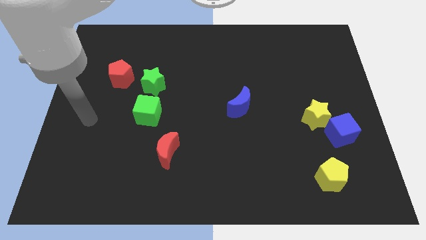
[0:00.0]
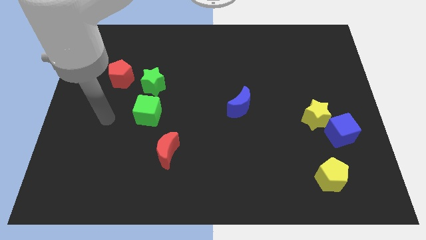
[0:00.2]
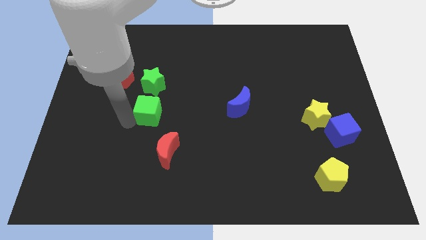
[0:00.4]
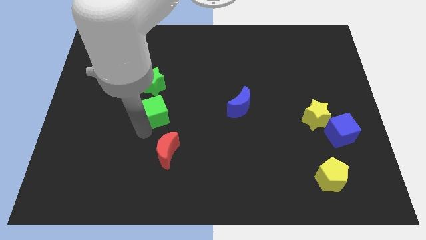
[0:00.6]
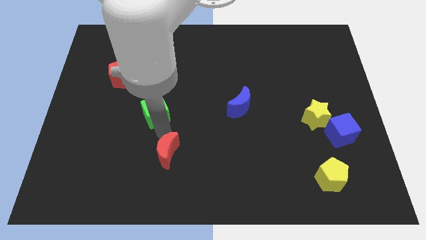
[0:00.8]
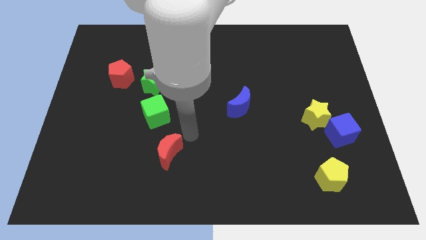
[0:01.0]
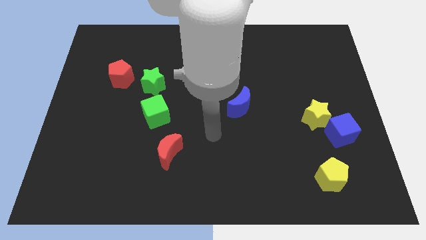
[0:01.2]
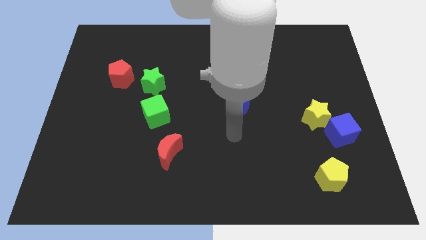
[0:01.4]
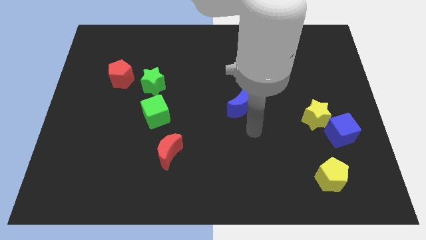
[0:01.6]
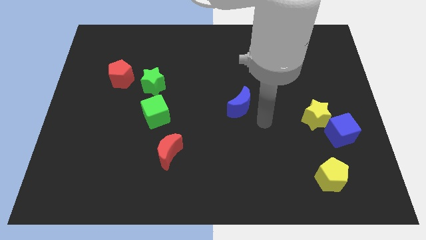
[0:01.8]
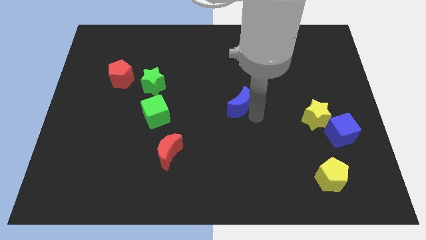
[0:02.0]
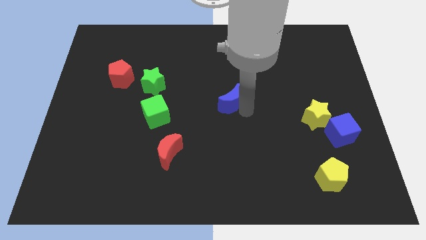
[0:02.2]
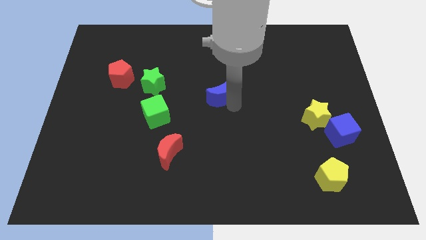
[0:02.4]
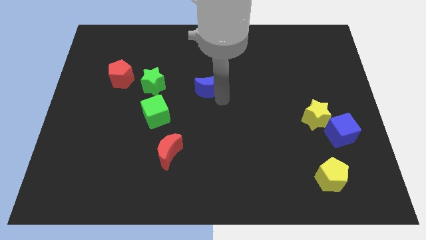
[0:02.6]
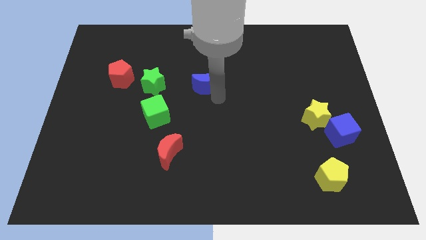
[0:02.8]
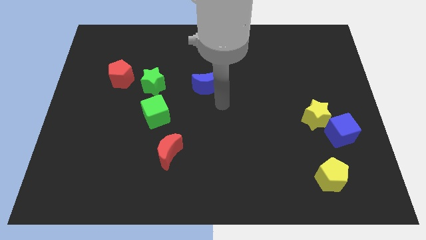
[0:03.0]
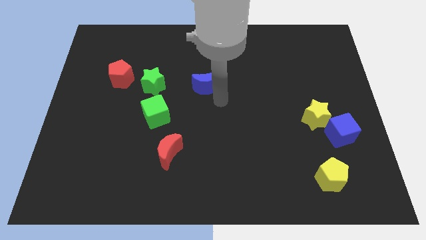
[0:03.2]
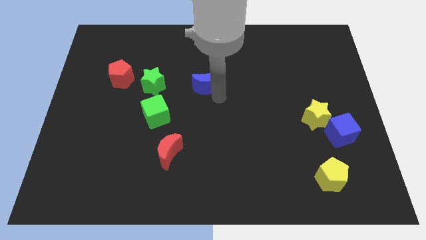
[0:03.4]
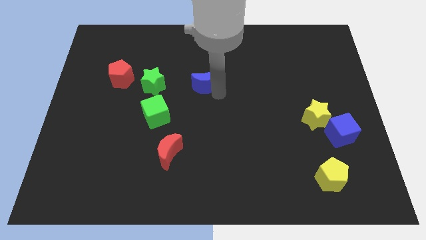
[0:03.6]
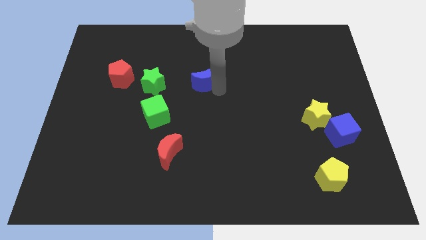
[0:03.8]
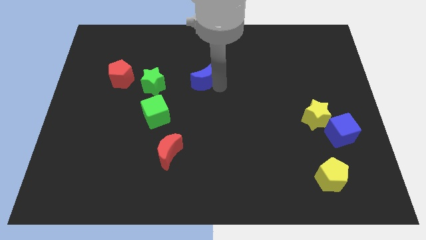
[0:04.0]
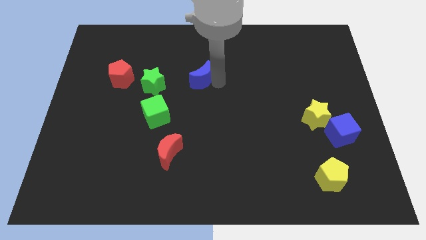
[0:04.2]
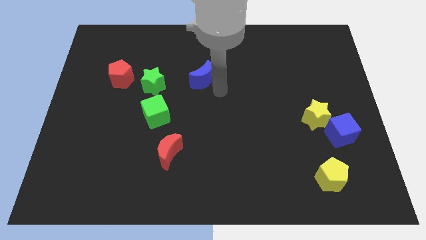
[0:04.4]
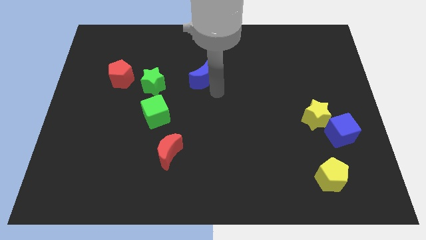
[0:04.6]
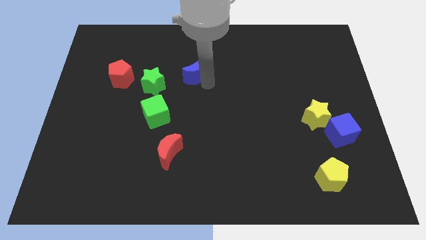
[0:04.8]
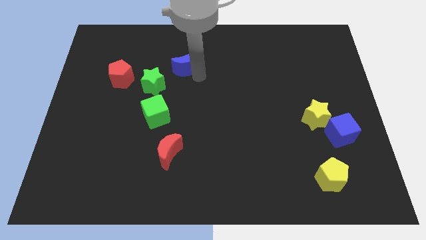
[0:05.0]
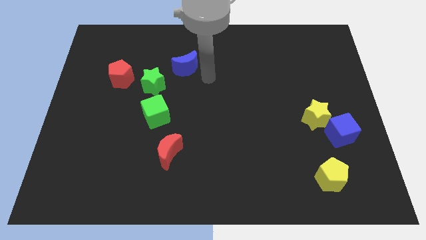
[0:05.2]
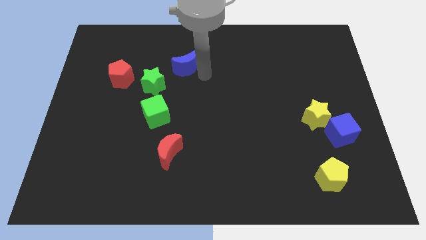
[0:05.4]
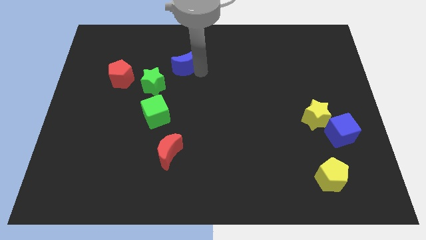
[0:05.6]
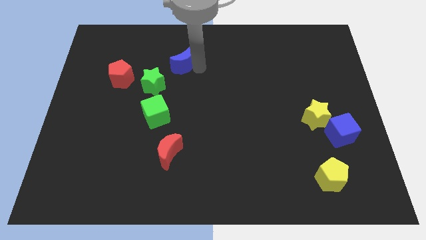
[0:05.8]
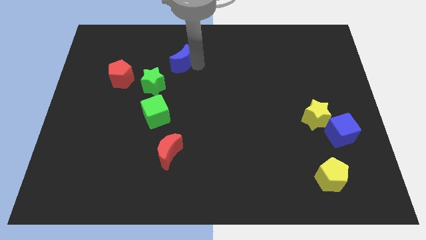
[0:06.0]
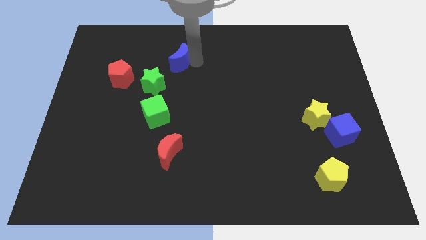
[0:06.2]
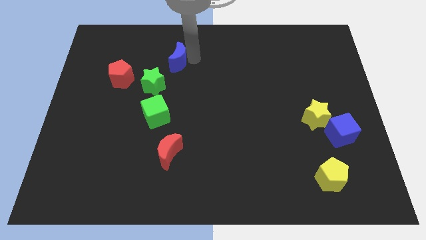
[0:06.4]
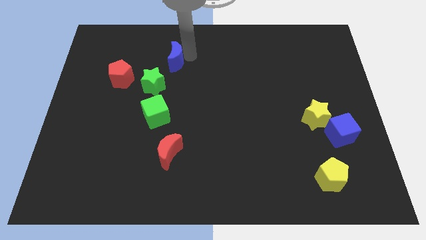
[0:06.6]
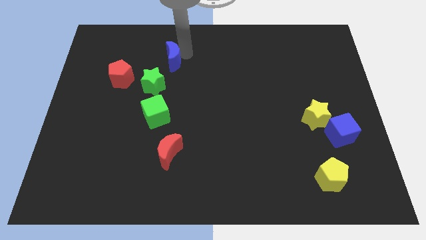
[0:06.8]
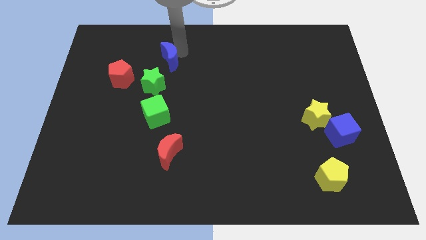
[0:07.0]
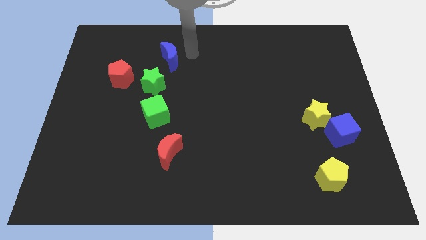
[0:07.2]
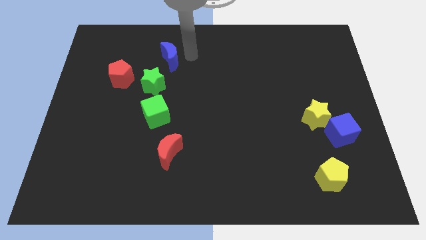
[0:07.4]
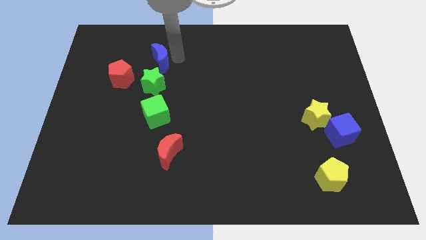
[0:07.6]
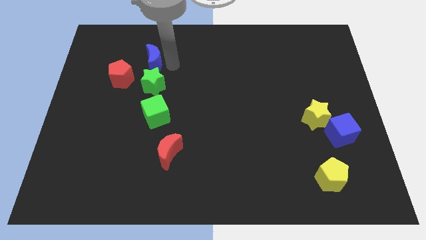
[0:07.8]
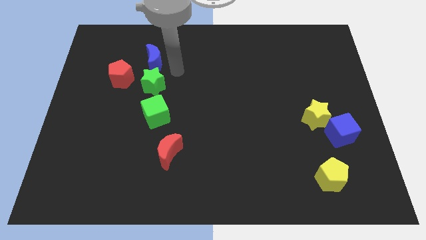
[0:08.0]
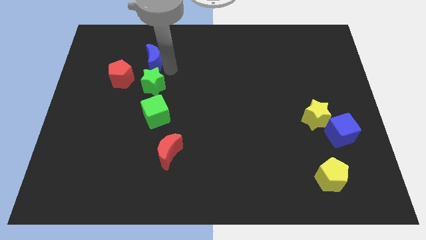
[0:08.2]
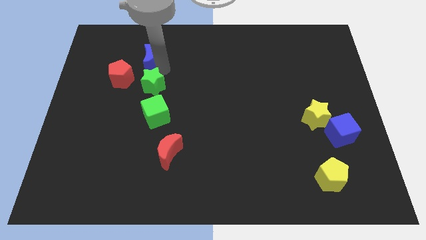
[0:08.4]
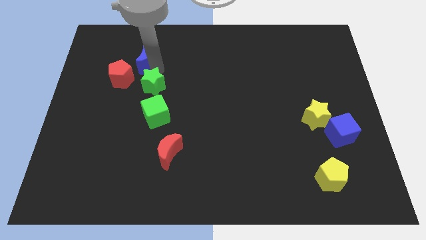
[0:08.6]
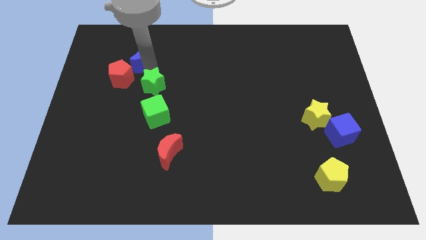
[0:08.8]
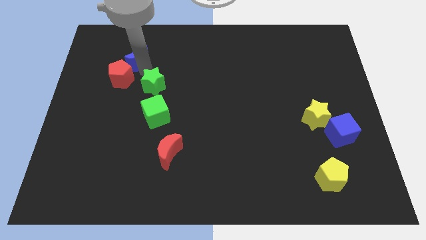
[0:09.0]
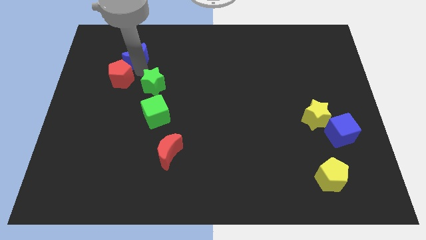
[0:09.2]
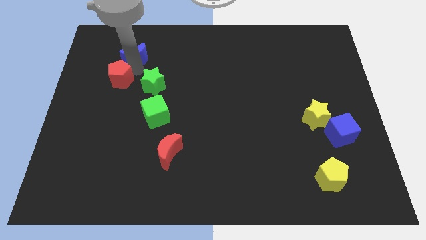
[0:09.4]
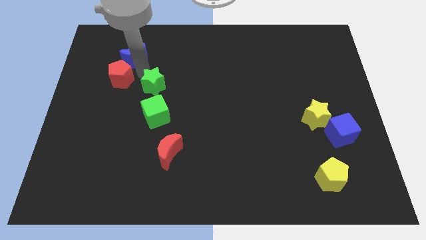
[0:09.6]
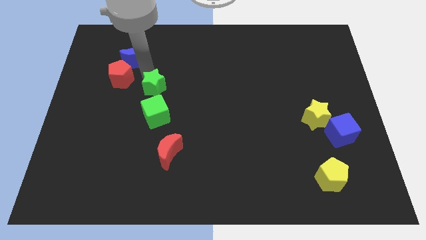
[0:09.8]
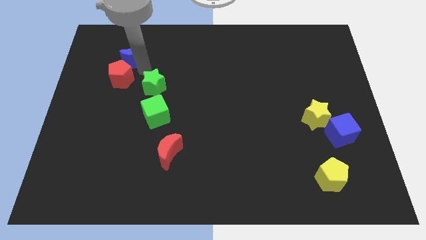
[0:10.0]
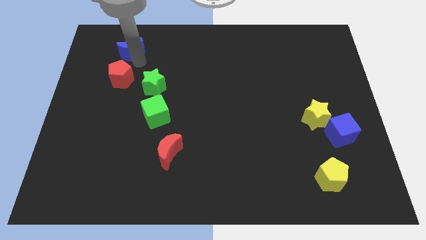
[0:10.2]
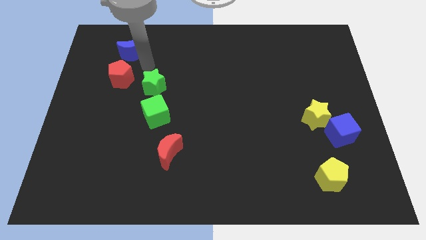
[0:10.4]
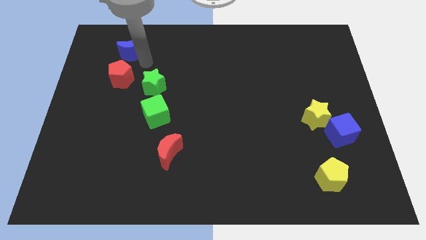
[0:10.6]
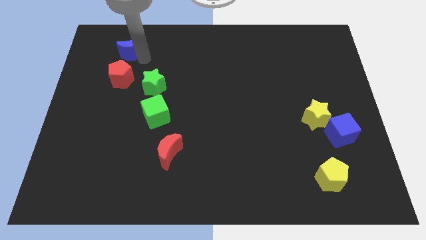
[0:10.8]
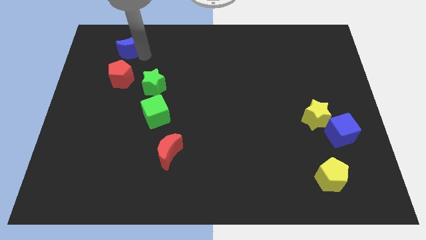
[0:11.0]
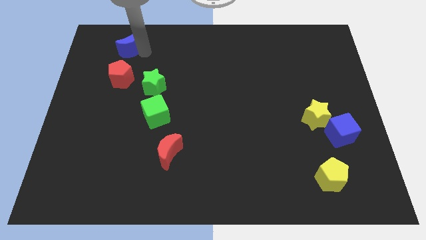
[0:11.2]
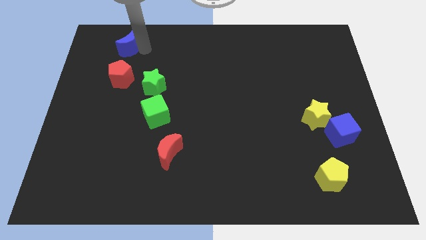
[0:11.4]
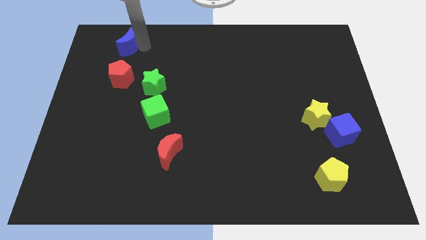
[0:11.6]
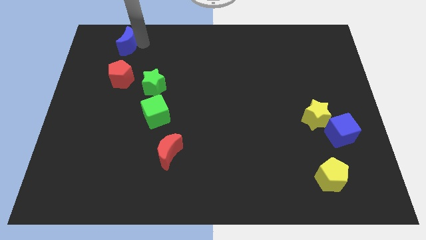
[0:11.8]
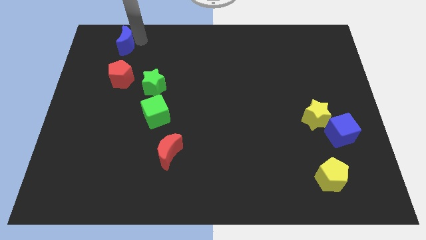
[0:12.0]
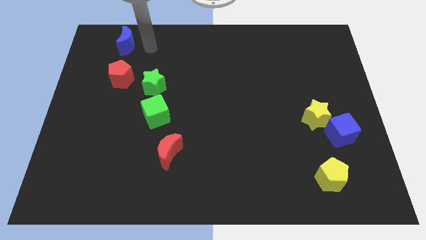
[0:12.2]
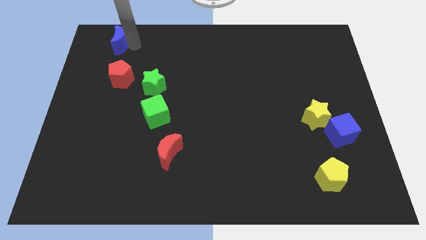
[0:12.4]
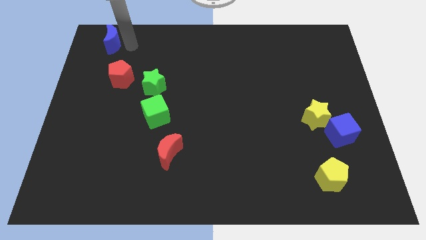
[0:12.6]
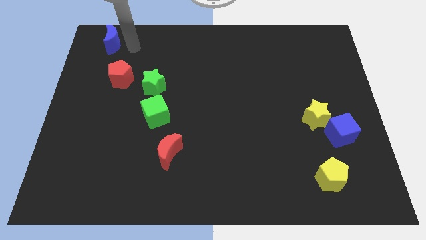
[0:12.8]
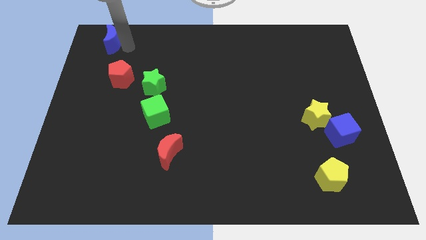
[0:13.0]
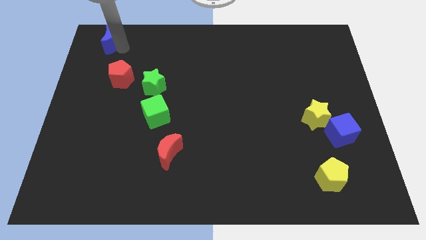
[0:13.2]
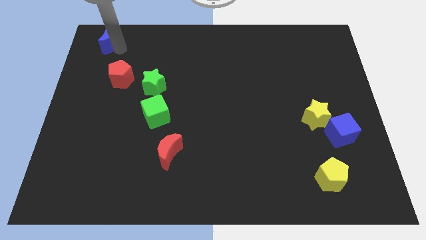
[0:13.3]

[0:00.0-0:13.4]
push the blue moon to the upper left corner

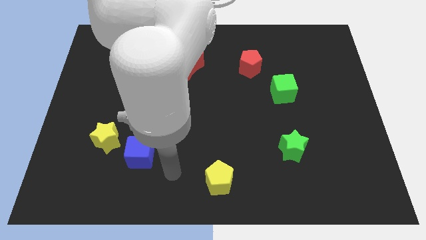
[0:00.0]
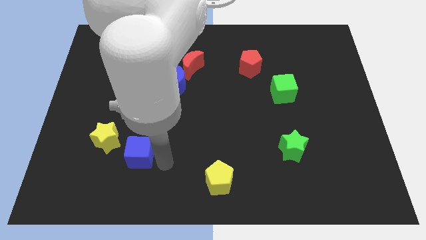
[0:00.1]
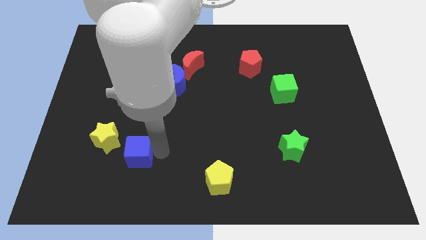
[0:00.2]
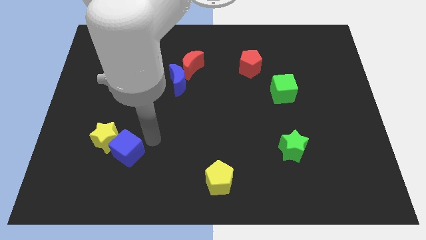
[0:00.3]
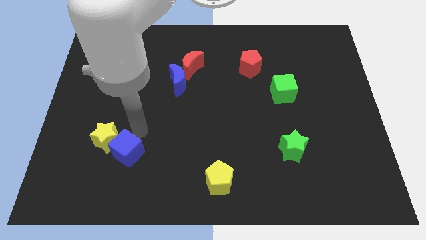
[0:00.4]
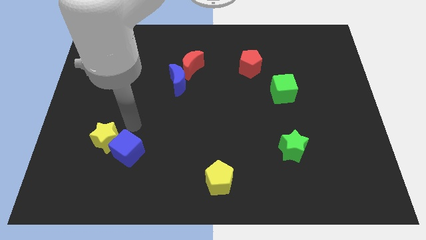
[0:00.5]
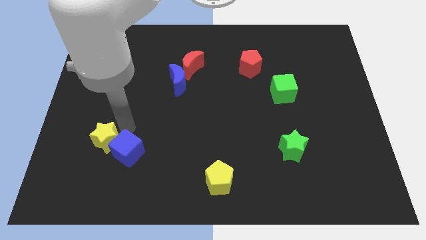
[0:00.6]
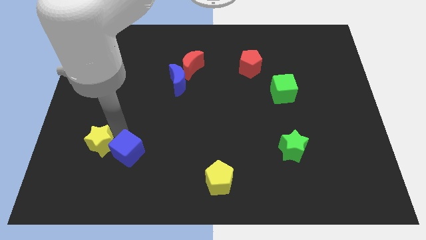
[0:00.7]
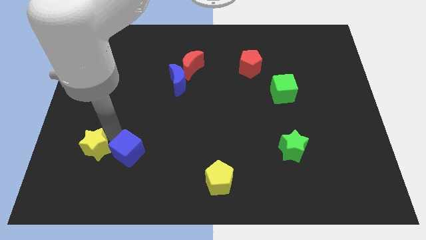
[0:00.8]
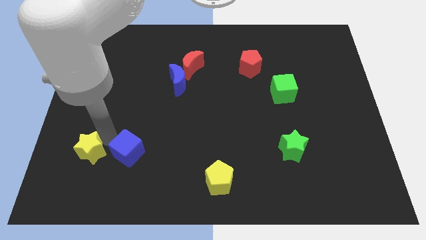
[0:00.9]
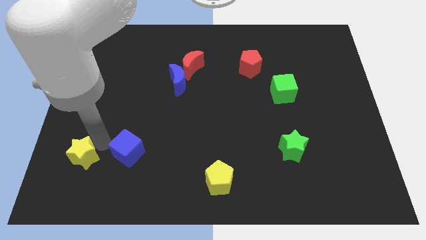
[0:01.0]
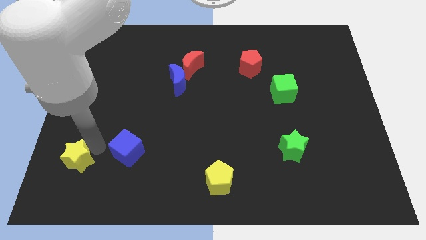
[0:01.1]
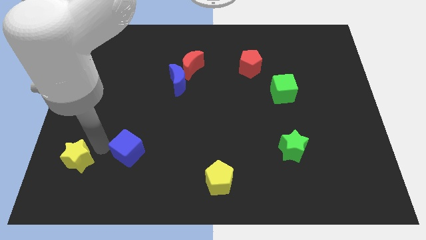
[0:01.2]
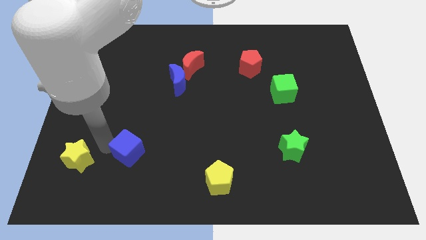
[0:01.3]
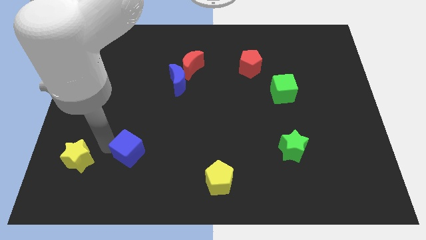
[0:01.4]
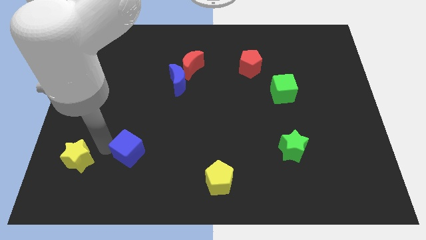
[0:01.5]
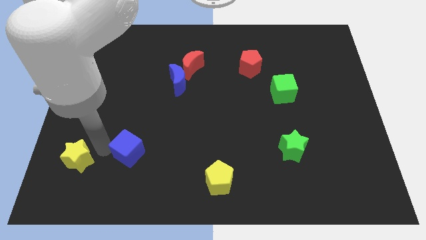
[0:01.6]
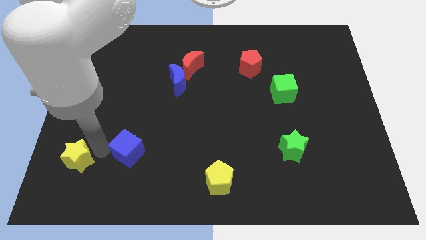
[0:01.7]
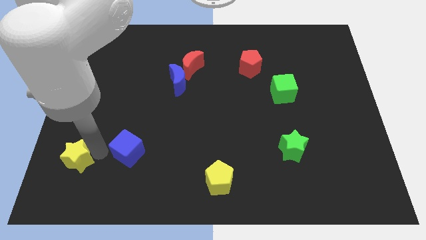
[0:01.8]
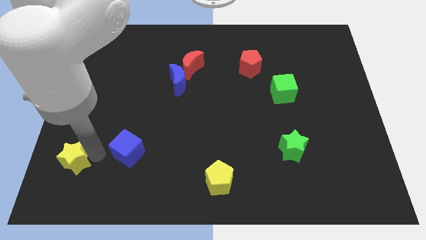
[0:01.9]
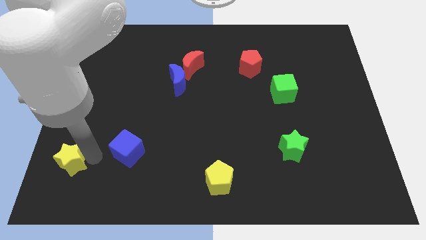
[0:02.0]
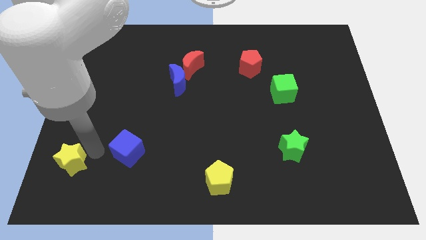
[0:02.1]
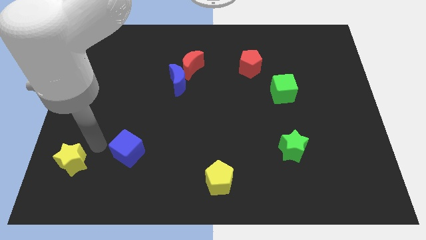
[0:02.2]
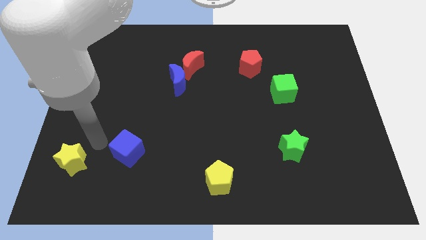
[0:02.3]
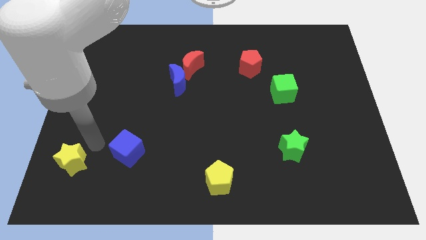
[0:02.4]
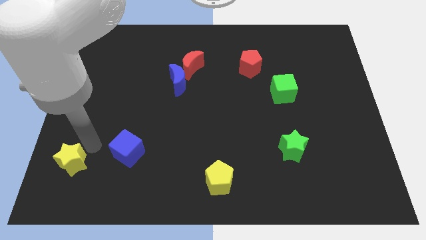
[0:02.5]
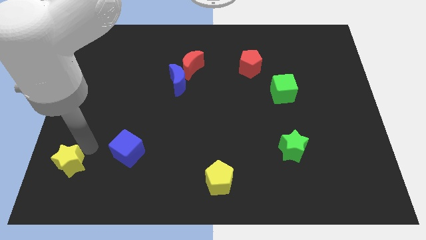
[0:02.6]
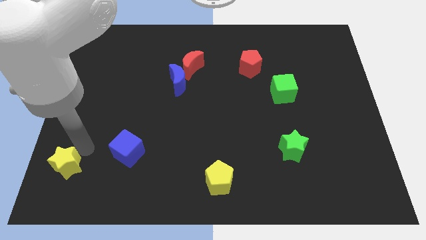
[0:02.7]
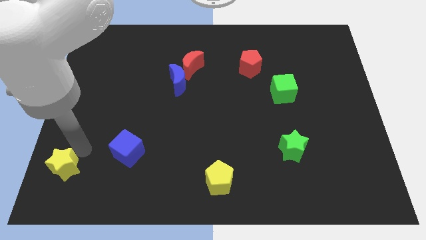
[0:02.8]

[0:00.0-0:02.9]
slide the yellow star to the lower left corner
